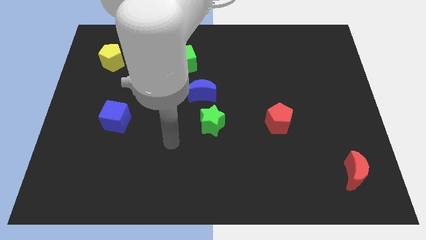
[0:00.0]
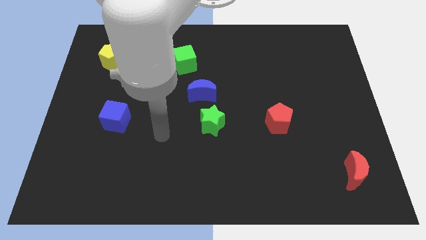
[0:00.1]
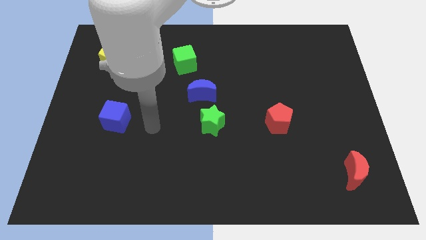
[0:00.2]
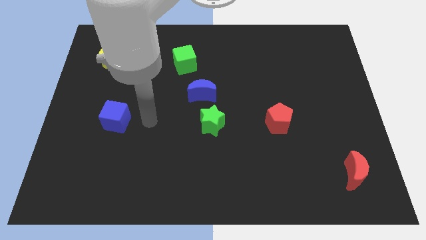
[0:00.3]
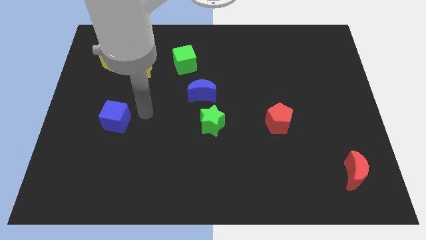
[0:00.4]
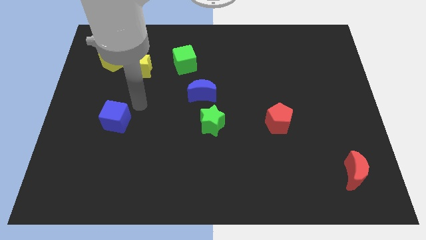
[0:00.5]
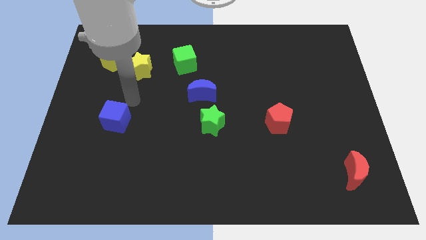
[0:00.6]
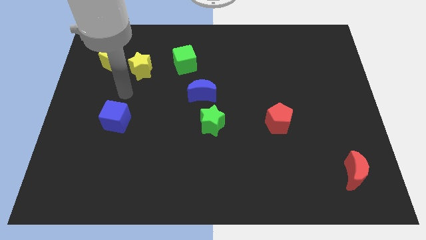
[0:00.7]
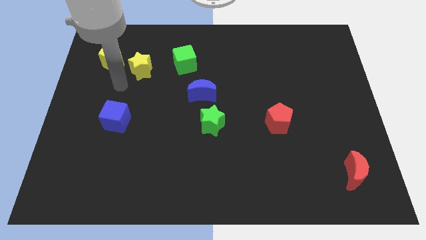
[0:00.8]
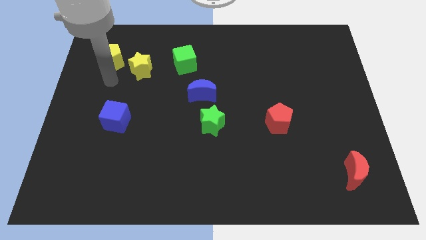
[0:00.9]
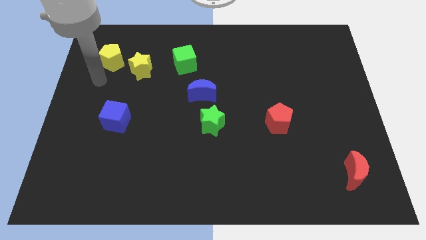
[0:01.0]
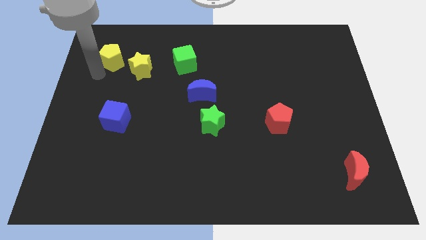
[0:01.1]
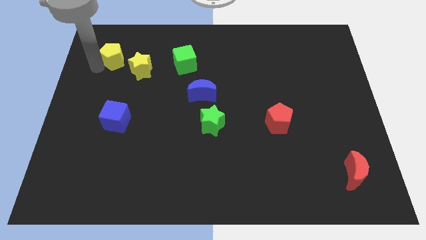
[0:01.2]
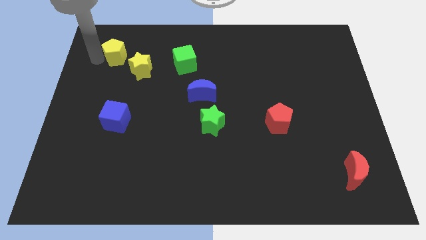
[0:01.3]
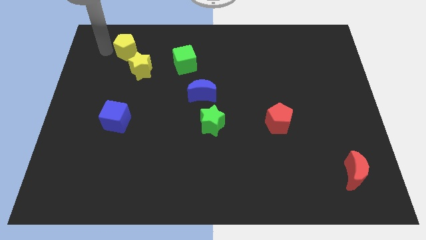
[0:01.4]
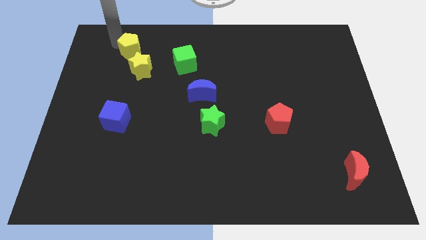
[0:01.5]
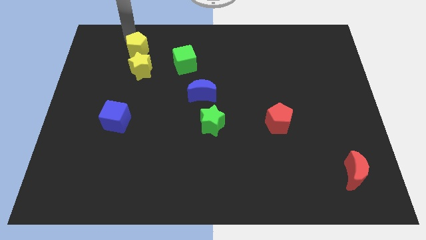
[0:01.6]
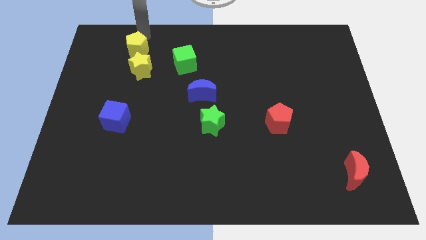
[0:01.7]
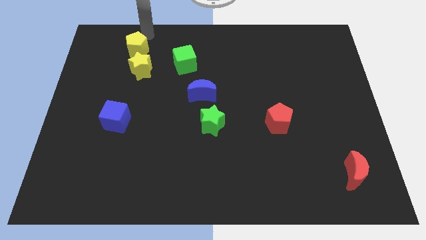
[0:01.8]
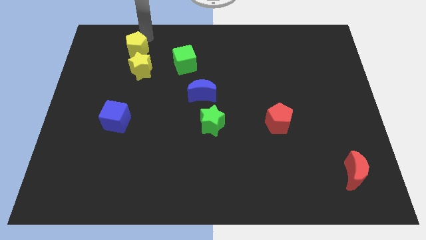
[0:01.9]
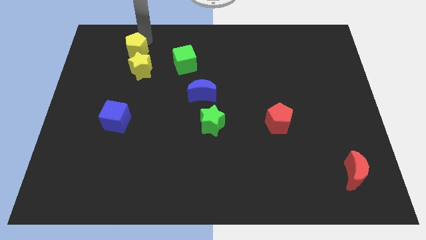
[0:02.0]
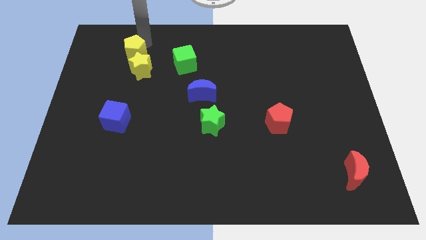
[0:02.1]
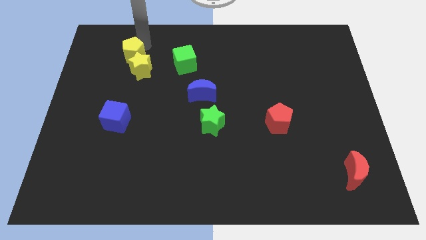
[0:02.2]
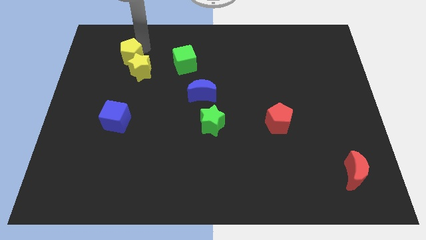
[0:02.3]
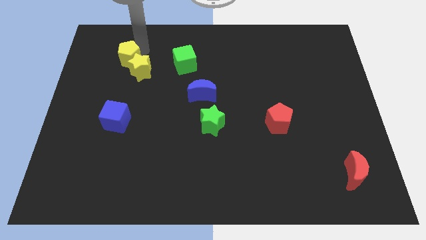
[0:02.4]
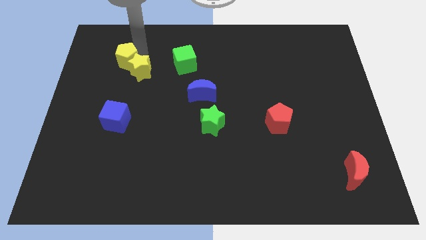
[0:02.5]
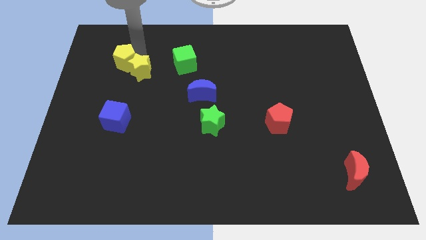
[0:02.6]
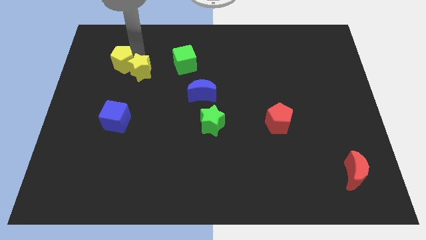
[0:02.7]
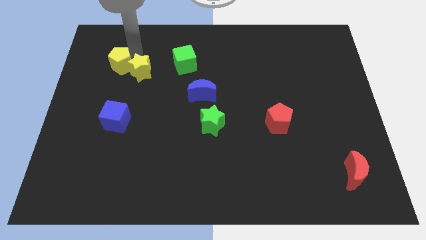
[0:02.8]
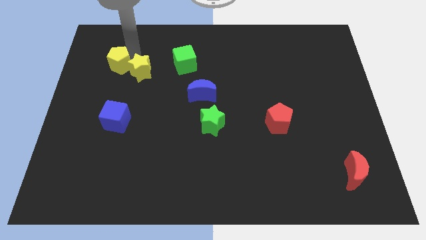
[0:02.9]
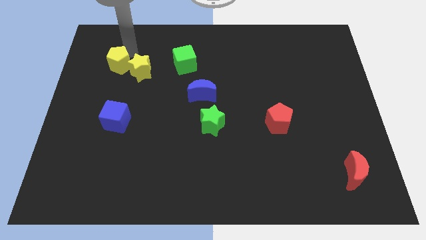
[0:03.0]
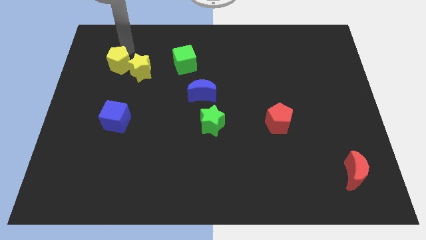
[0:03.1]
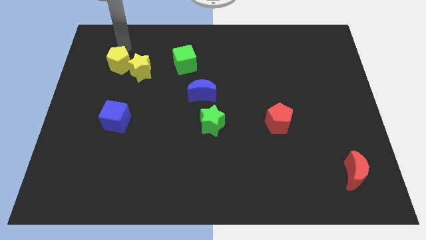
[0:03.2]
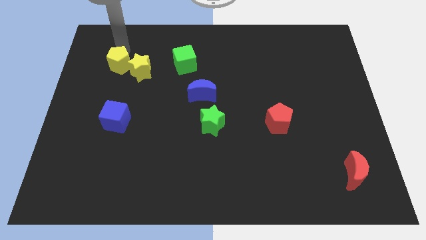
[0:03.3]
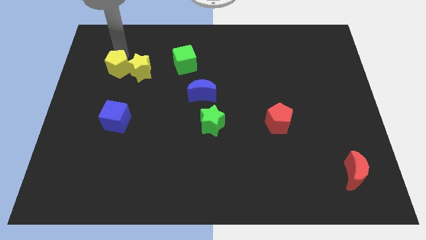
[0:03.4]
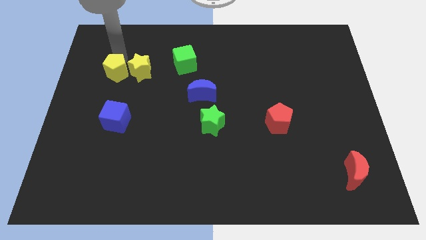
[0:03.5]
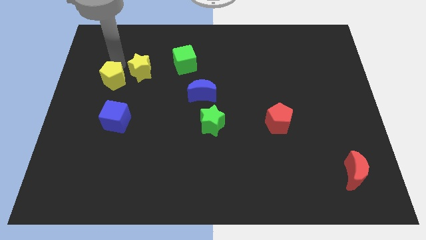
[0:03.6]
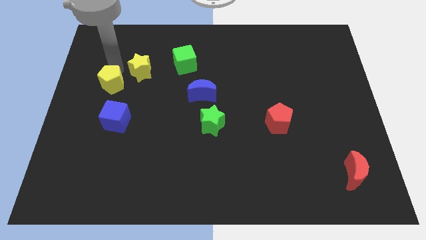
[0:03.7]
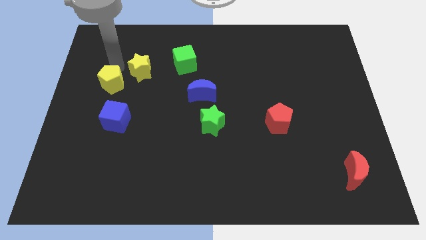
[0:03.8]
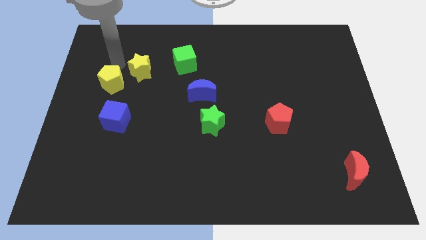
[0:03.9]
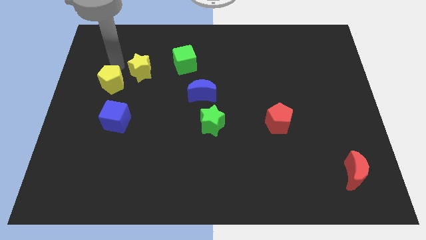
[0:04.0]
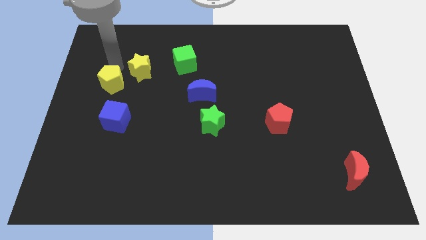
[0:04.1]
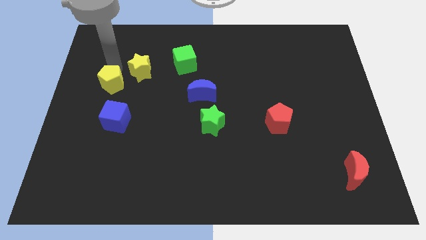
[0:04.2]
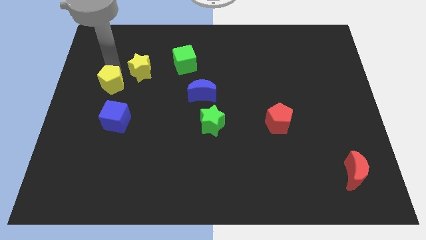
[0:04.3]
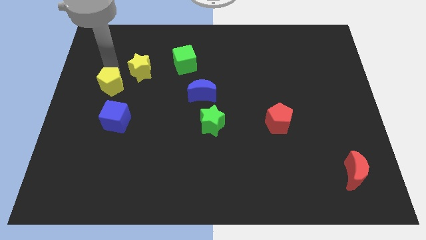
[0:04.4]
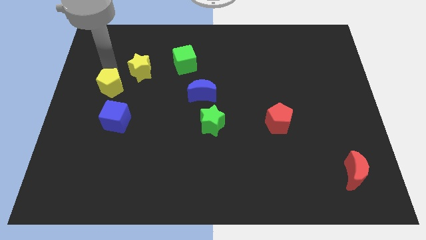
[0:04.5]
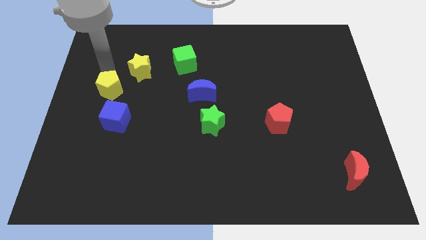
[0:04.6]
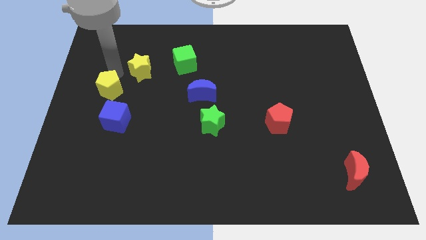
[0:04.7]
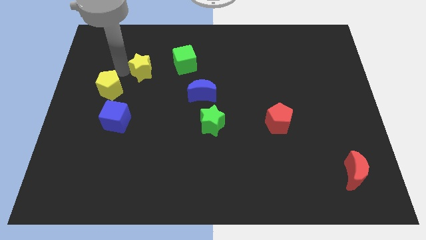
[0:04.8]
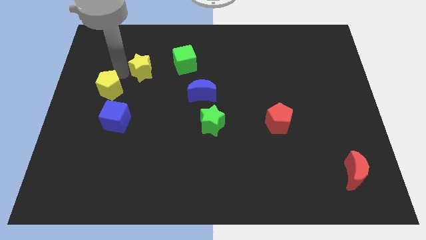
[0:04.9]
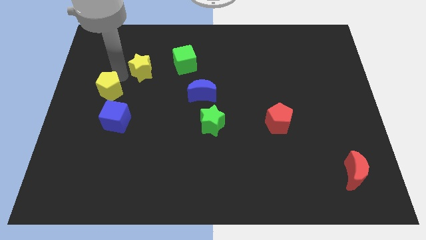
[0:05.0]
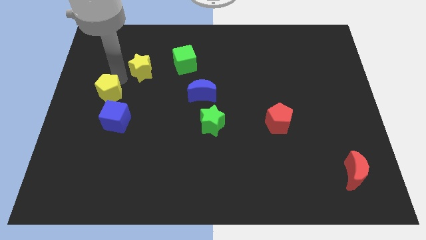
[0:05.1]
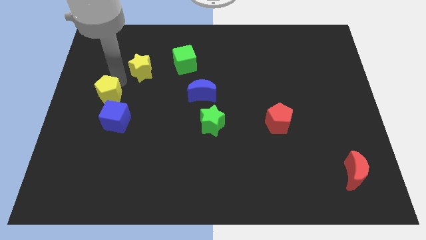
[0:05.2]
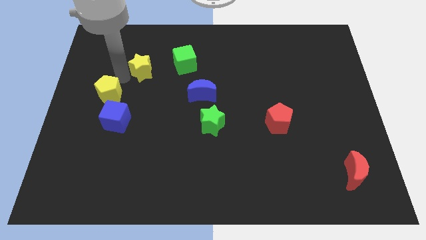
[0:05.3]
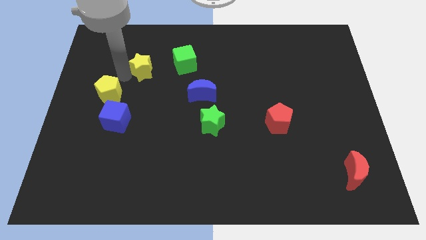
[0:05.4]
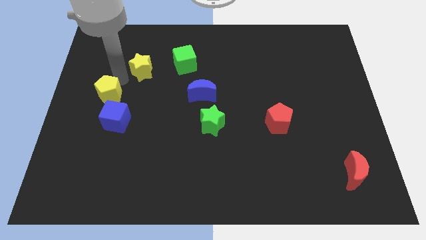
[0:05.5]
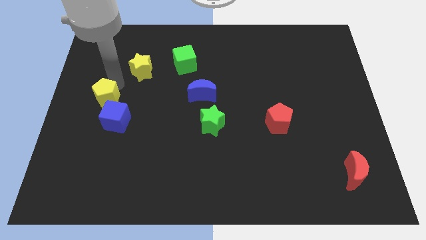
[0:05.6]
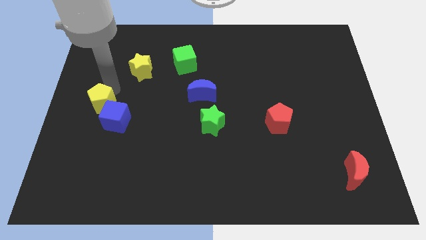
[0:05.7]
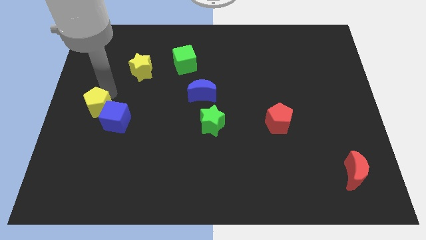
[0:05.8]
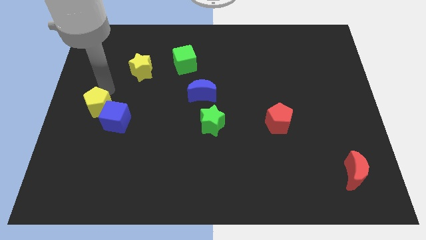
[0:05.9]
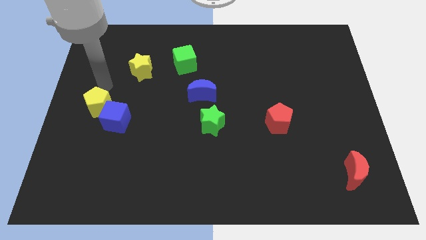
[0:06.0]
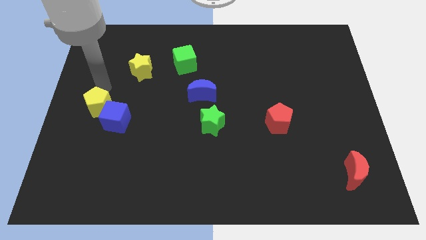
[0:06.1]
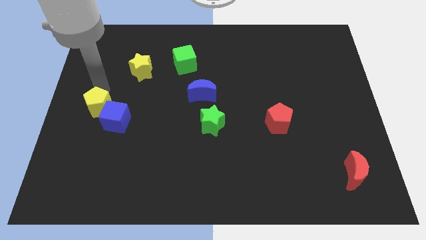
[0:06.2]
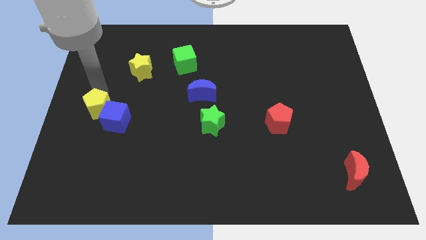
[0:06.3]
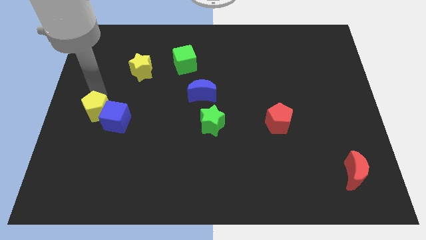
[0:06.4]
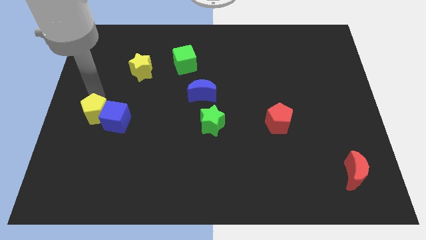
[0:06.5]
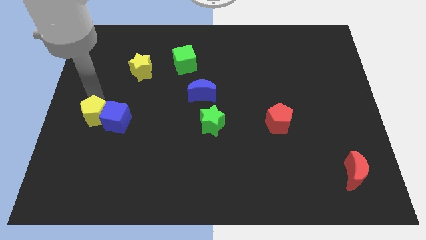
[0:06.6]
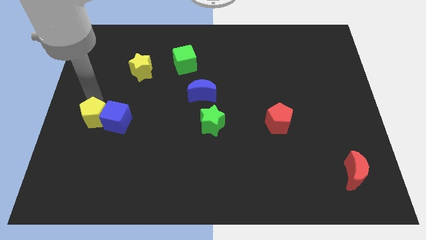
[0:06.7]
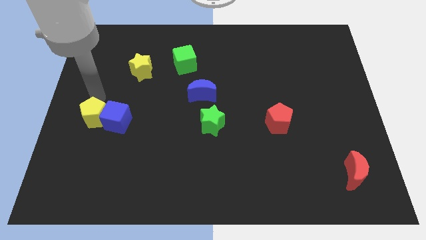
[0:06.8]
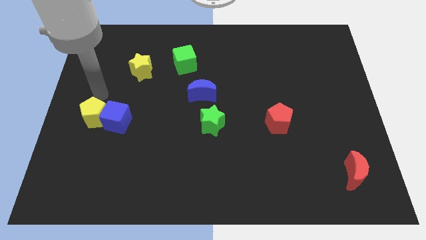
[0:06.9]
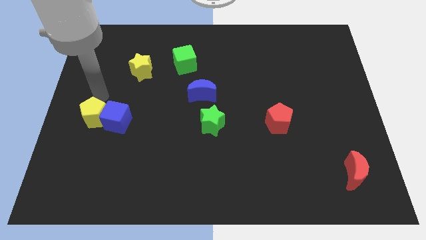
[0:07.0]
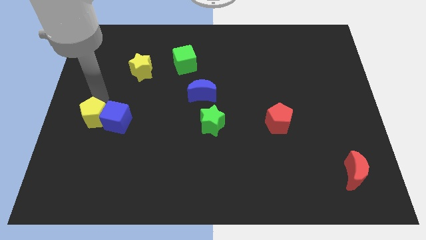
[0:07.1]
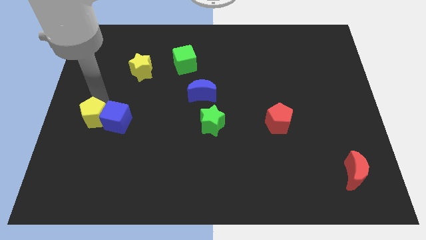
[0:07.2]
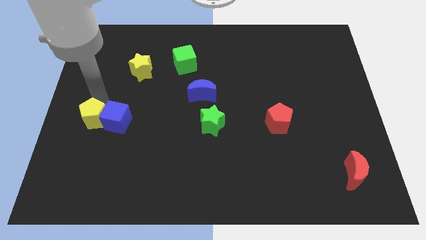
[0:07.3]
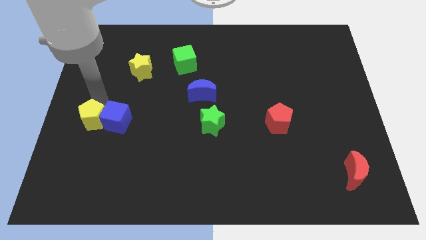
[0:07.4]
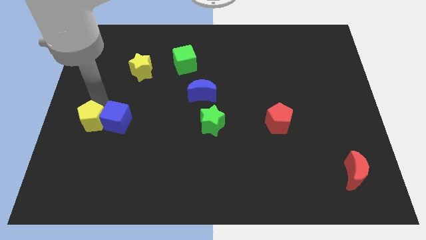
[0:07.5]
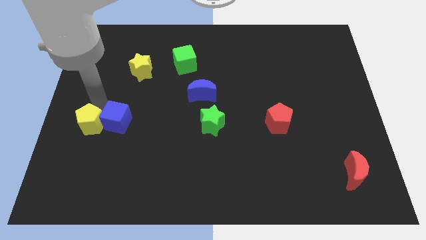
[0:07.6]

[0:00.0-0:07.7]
move the yellow pentagon down
